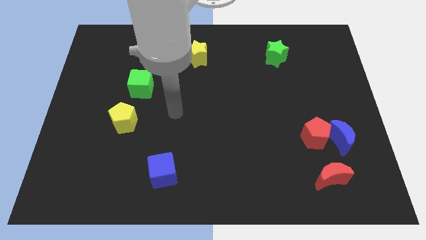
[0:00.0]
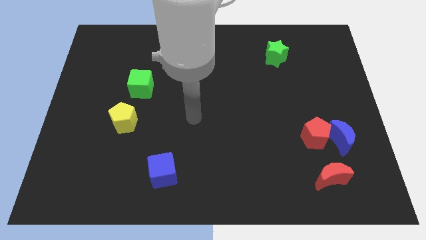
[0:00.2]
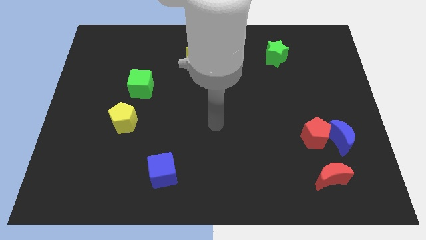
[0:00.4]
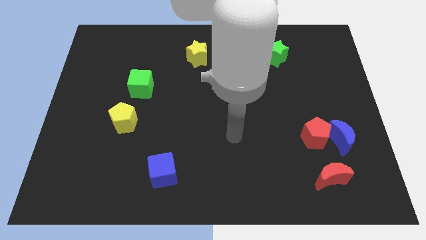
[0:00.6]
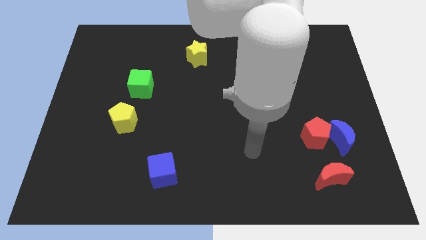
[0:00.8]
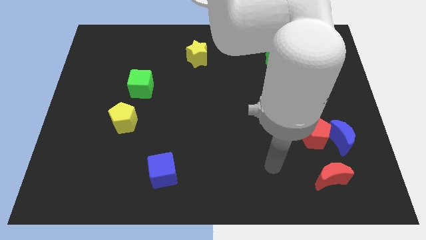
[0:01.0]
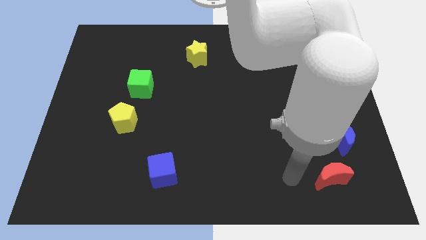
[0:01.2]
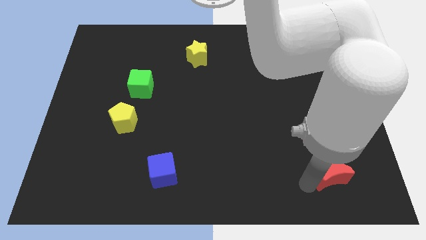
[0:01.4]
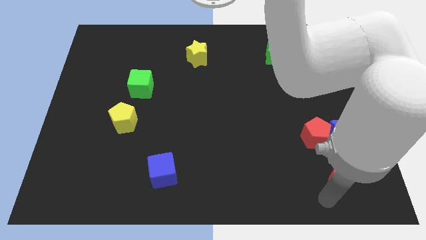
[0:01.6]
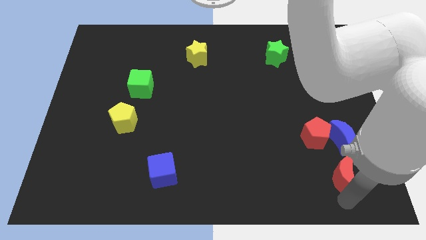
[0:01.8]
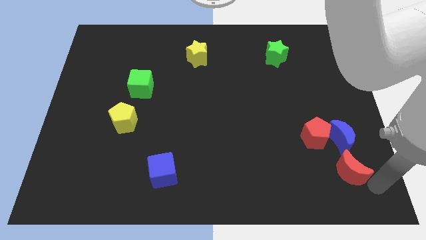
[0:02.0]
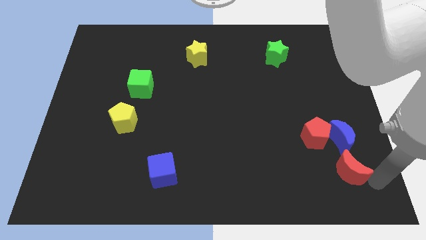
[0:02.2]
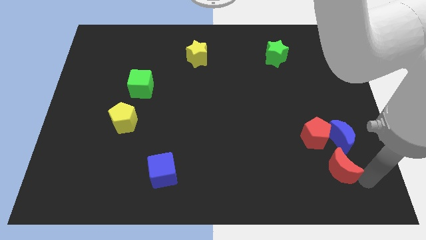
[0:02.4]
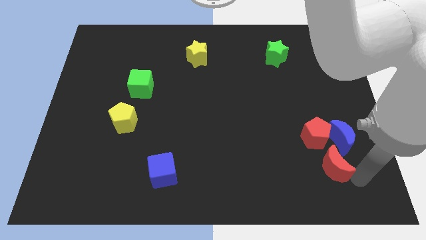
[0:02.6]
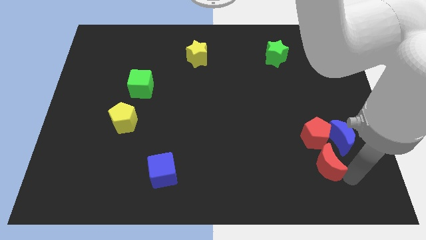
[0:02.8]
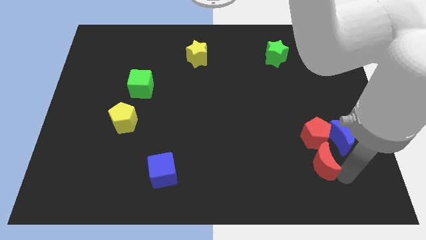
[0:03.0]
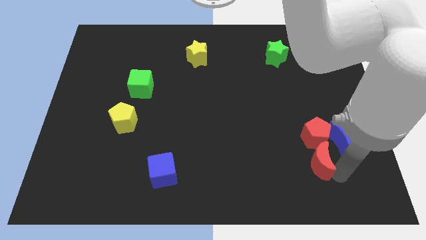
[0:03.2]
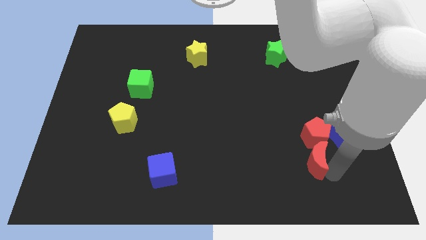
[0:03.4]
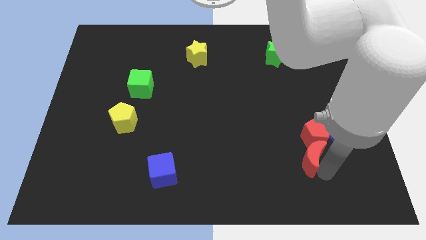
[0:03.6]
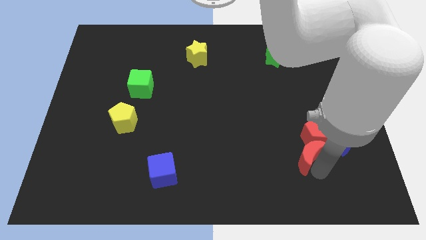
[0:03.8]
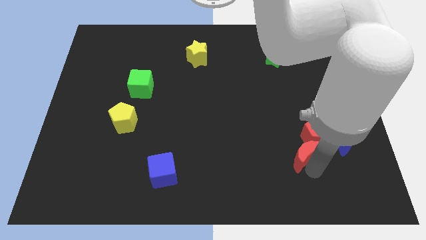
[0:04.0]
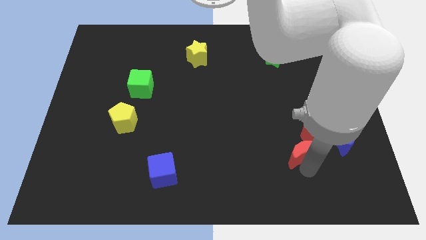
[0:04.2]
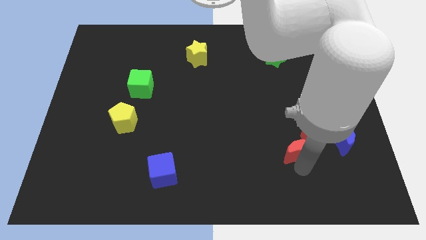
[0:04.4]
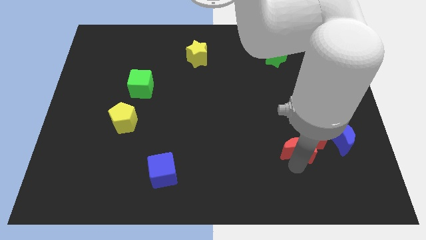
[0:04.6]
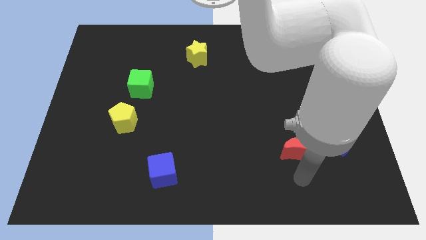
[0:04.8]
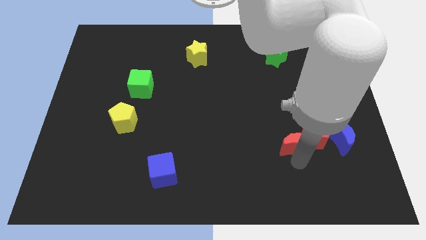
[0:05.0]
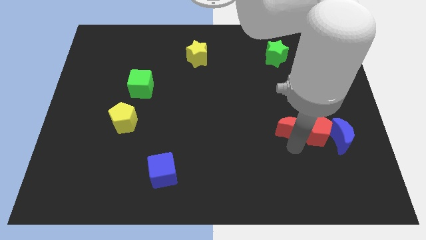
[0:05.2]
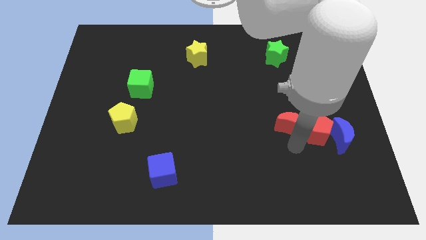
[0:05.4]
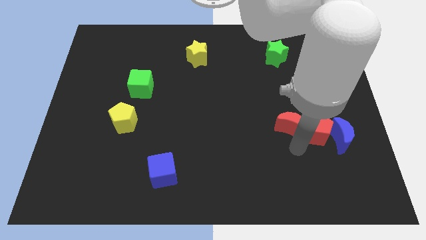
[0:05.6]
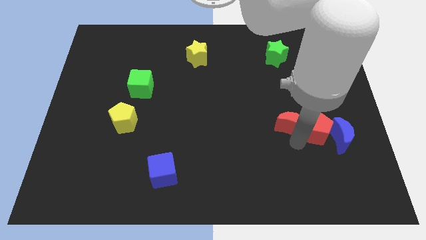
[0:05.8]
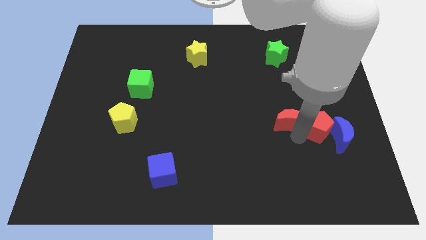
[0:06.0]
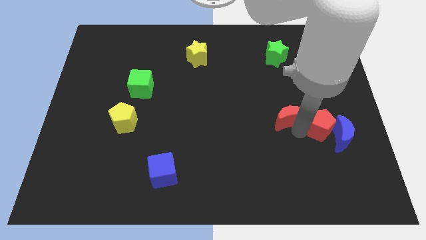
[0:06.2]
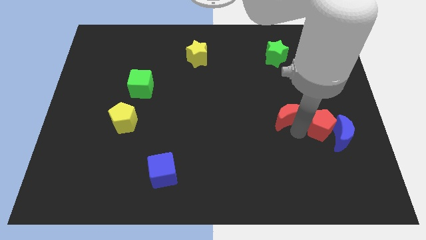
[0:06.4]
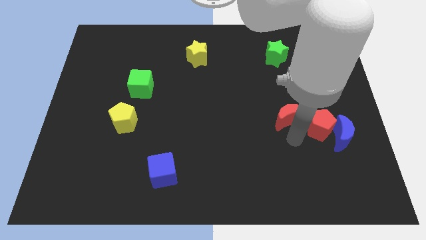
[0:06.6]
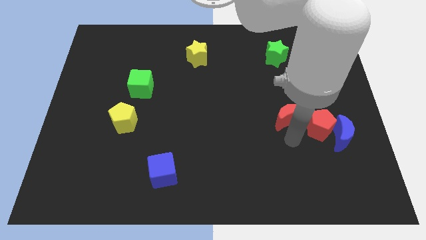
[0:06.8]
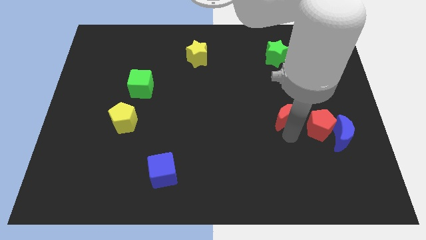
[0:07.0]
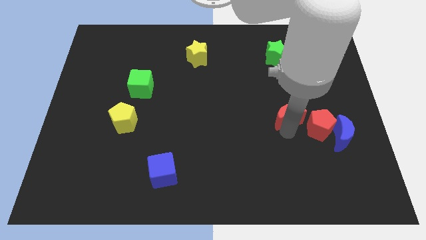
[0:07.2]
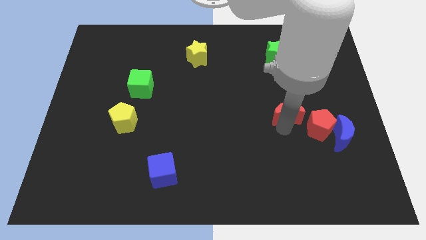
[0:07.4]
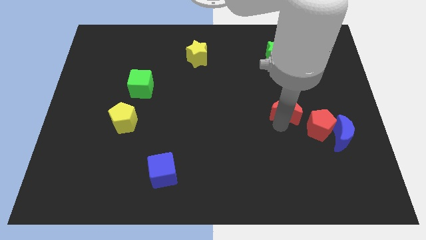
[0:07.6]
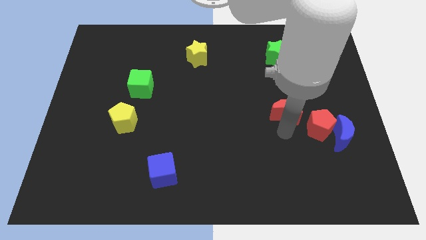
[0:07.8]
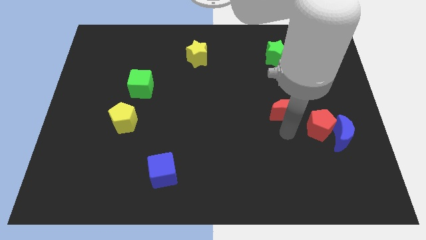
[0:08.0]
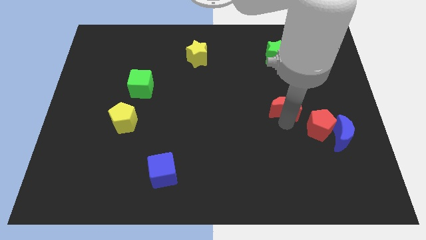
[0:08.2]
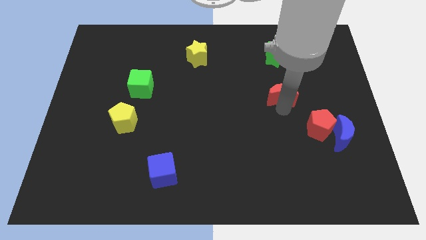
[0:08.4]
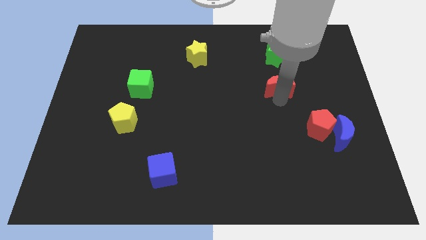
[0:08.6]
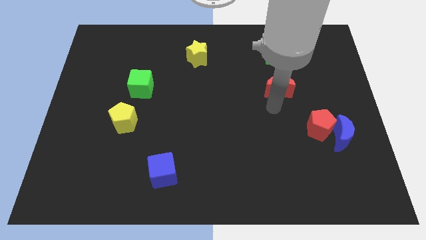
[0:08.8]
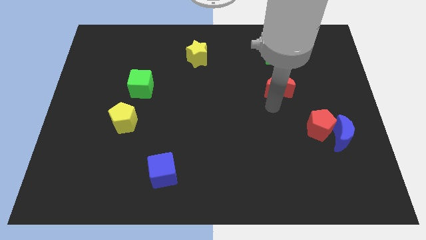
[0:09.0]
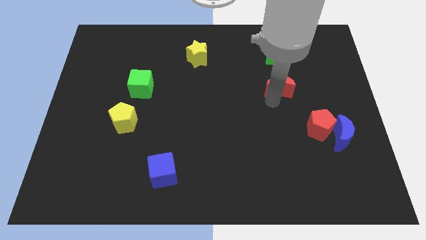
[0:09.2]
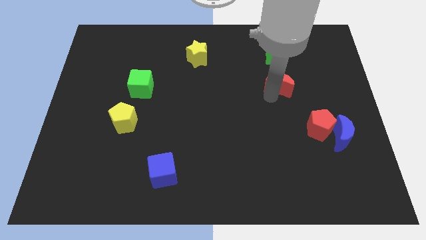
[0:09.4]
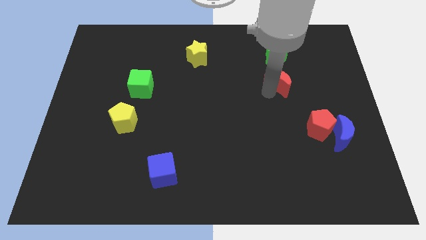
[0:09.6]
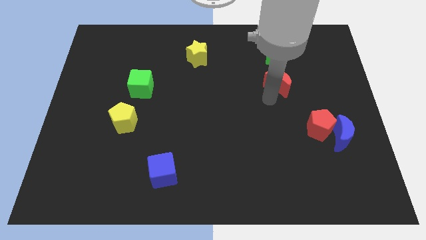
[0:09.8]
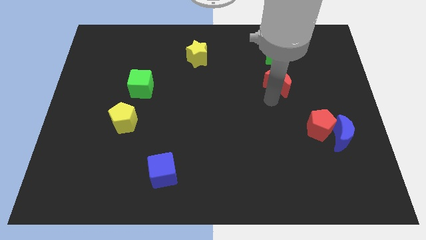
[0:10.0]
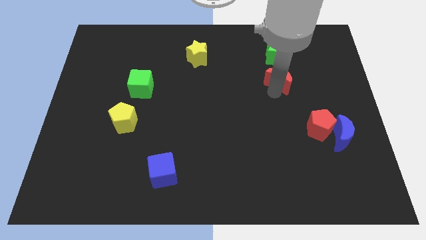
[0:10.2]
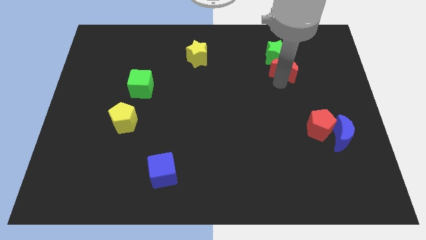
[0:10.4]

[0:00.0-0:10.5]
move the red moon to the green star

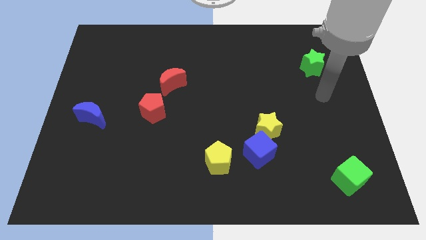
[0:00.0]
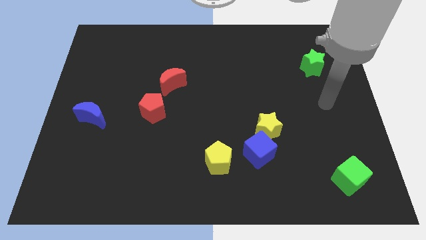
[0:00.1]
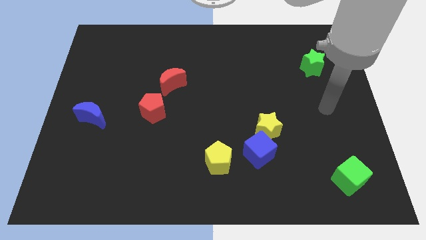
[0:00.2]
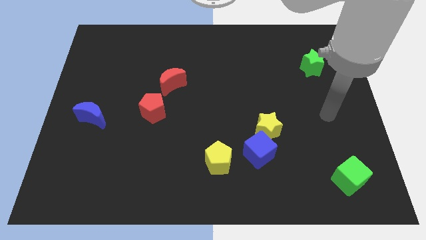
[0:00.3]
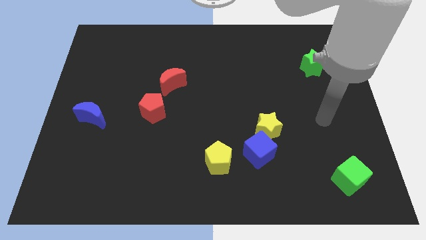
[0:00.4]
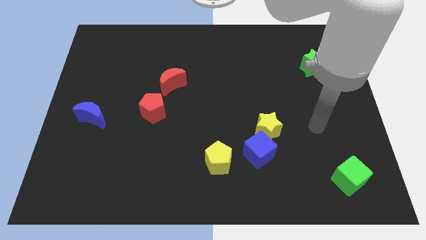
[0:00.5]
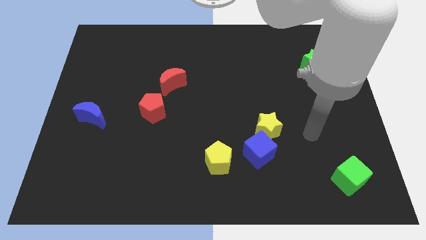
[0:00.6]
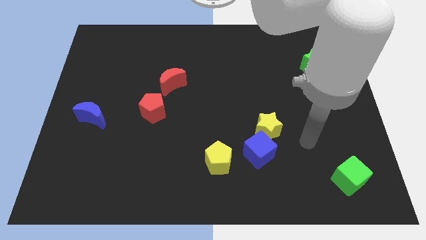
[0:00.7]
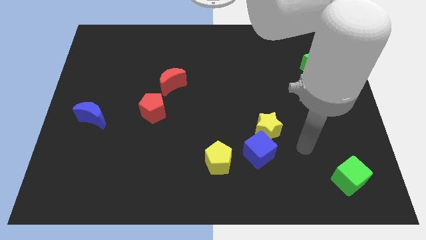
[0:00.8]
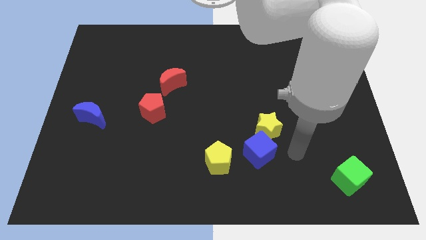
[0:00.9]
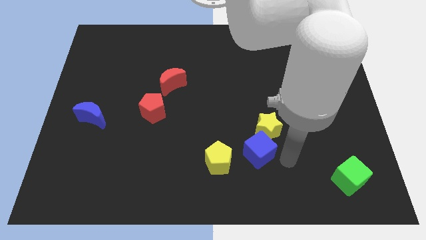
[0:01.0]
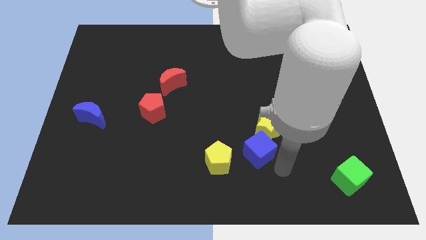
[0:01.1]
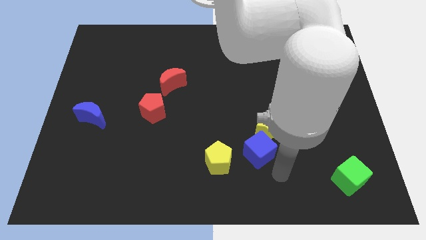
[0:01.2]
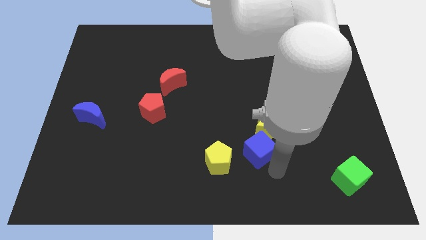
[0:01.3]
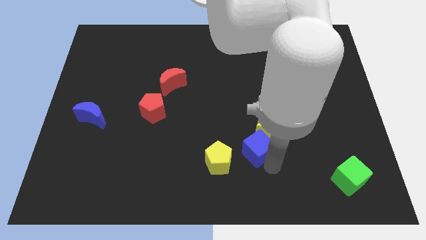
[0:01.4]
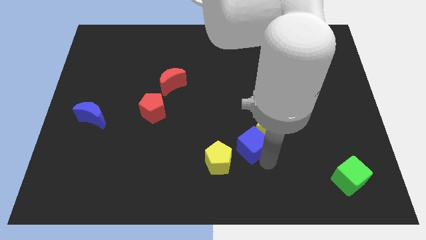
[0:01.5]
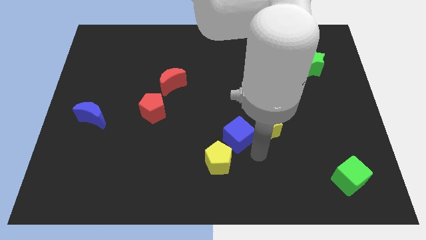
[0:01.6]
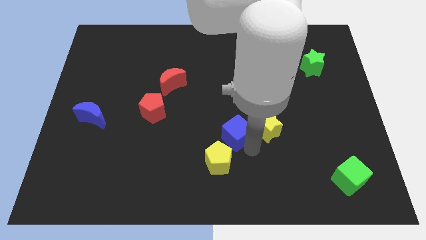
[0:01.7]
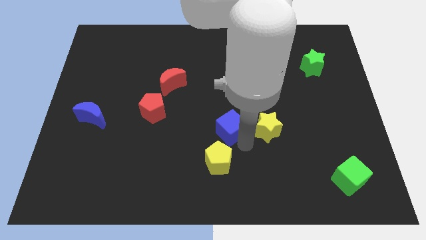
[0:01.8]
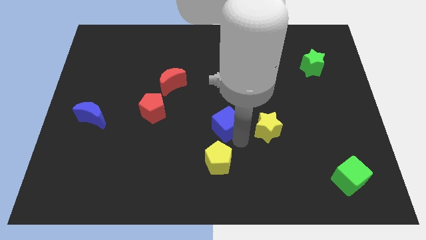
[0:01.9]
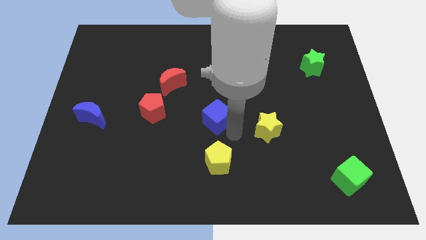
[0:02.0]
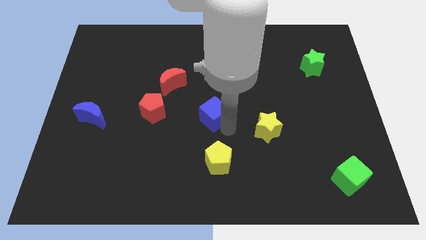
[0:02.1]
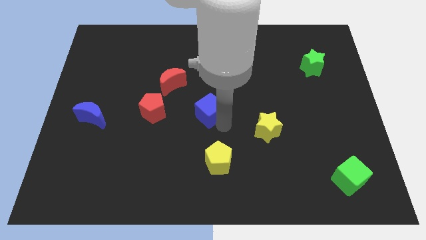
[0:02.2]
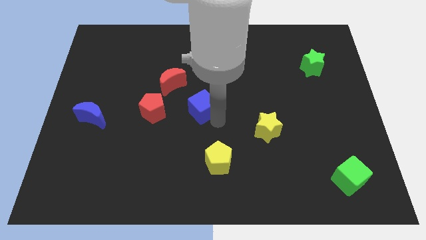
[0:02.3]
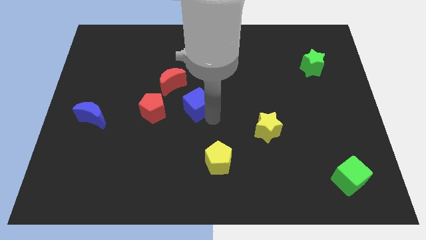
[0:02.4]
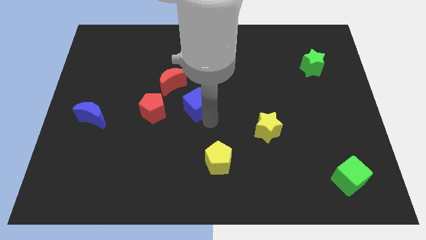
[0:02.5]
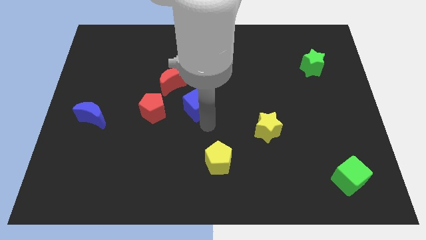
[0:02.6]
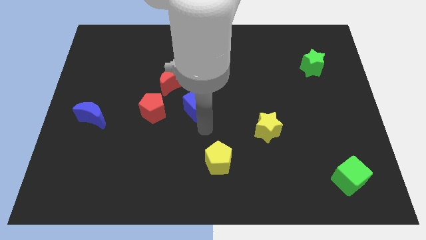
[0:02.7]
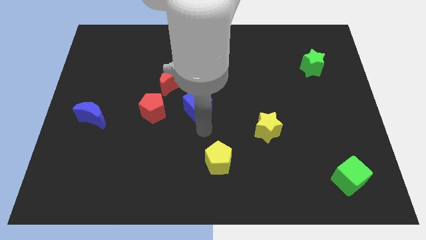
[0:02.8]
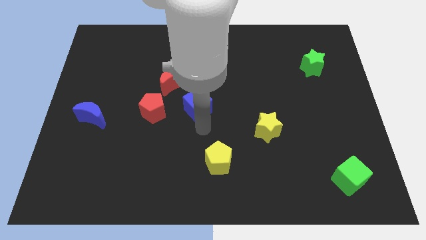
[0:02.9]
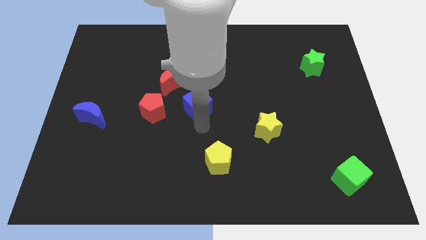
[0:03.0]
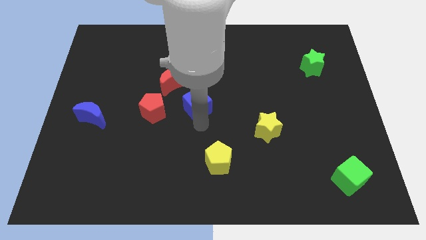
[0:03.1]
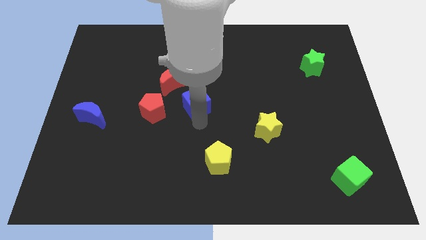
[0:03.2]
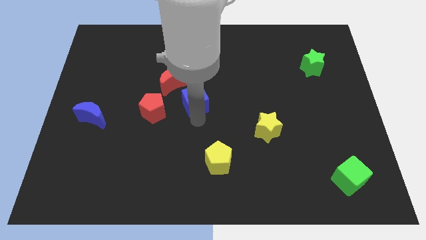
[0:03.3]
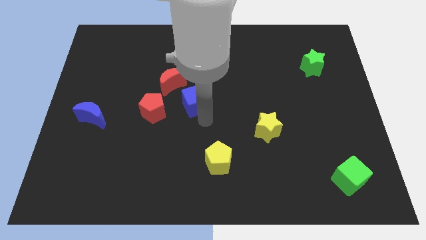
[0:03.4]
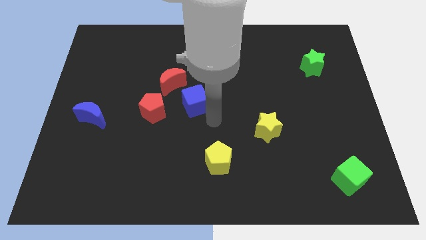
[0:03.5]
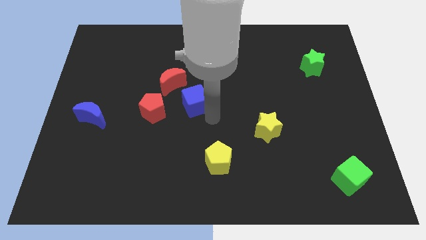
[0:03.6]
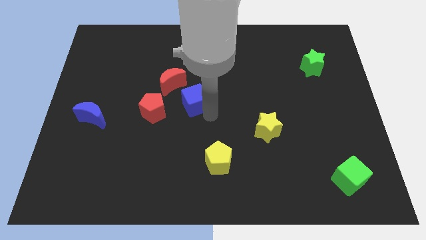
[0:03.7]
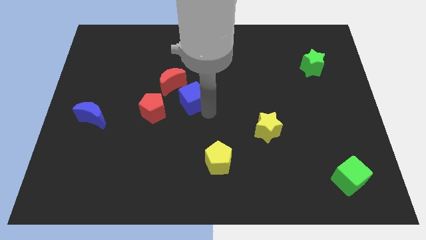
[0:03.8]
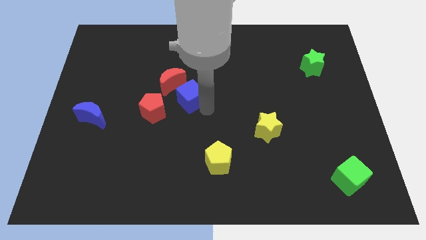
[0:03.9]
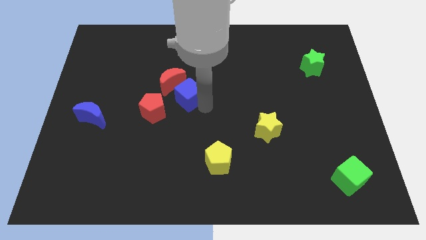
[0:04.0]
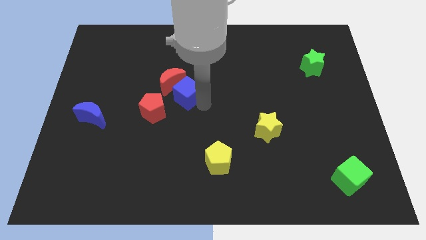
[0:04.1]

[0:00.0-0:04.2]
put the blue cube next to the red moon
